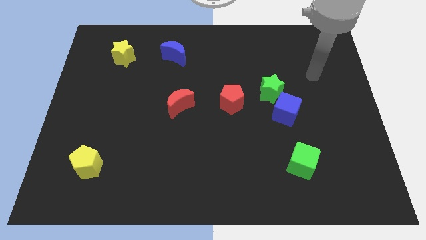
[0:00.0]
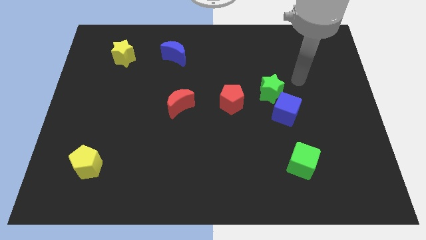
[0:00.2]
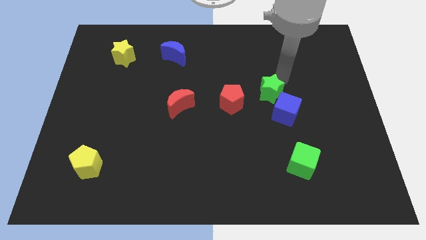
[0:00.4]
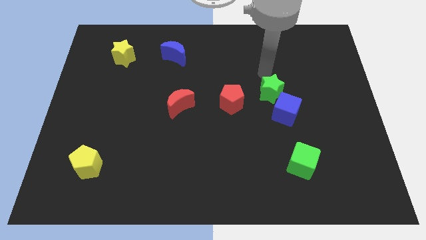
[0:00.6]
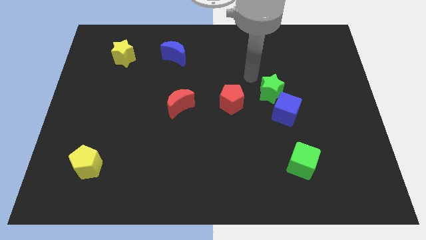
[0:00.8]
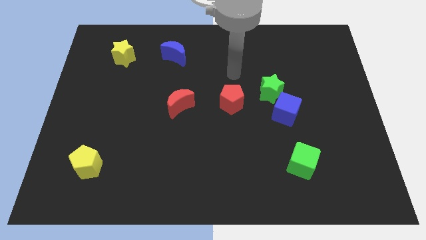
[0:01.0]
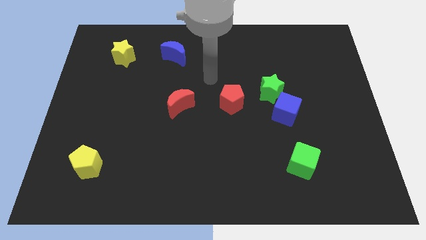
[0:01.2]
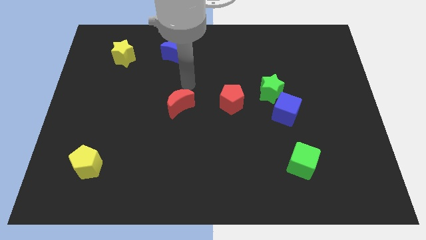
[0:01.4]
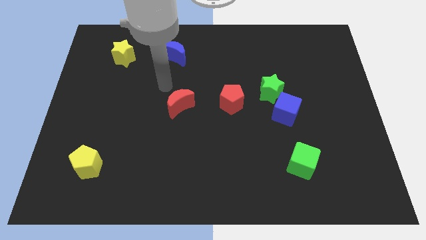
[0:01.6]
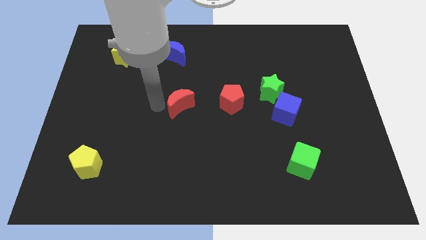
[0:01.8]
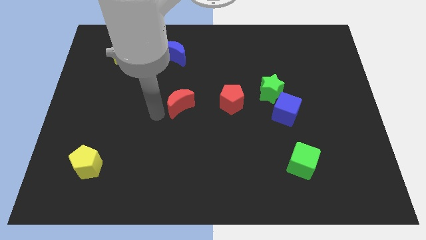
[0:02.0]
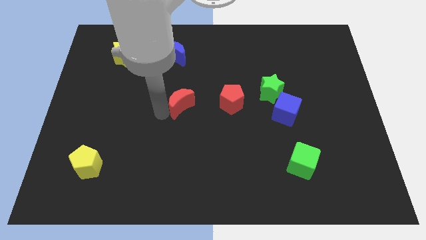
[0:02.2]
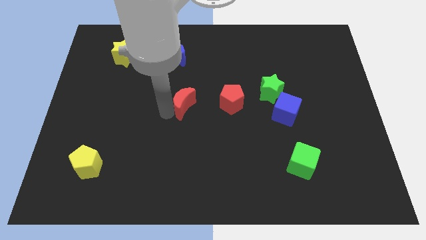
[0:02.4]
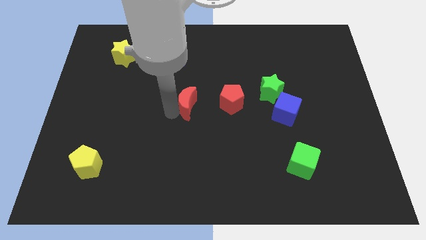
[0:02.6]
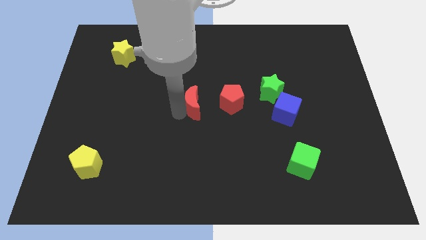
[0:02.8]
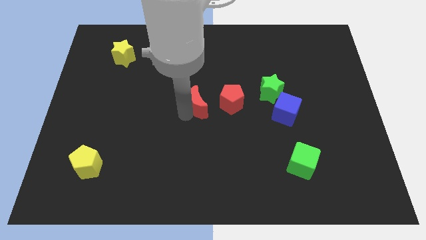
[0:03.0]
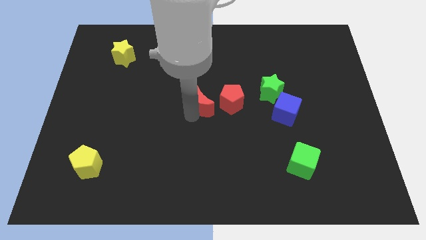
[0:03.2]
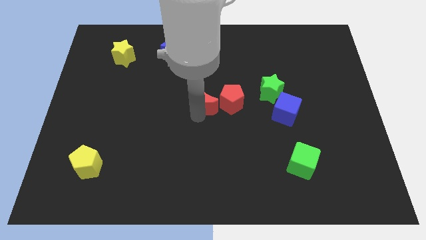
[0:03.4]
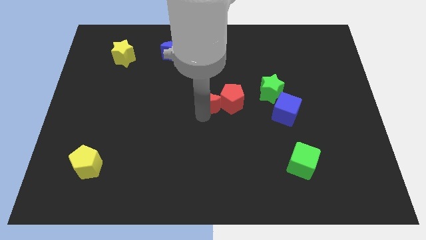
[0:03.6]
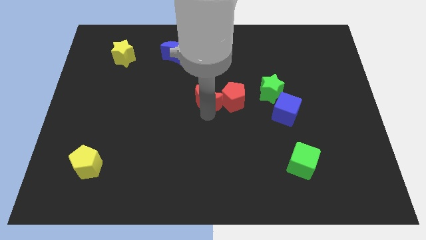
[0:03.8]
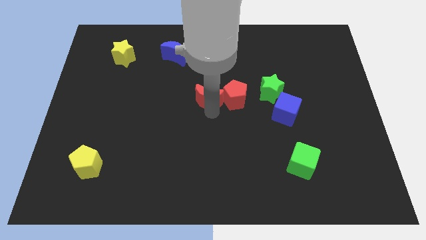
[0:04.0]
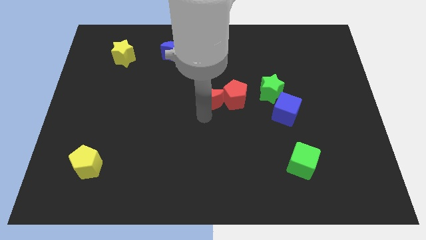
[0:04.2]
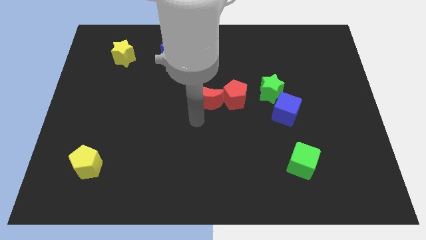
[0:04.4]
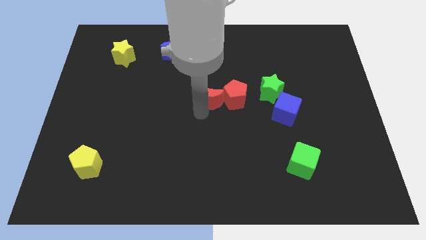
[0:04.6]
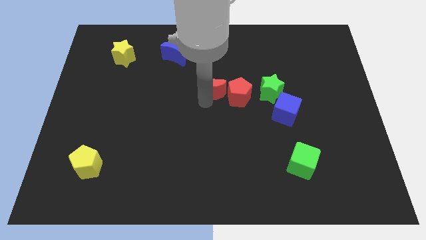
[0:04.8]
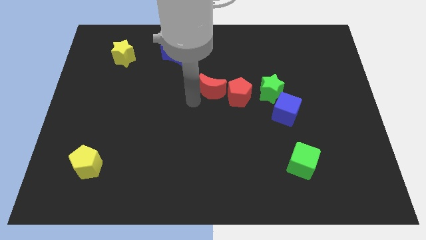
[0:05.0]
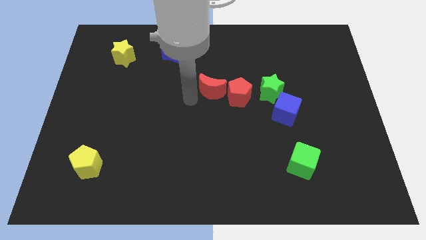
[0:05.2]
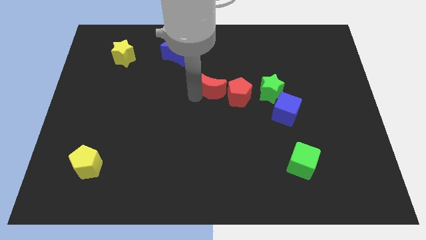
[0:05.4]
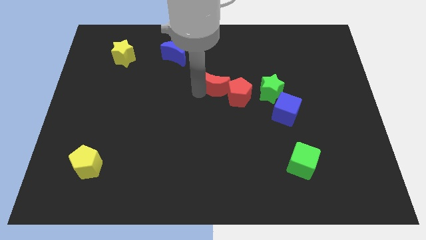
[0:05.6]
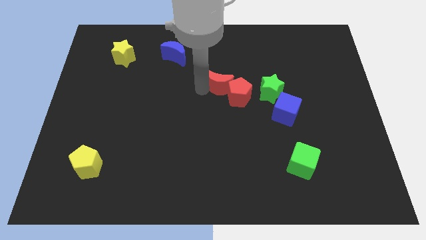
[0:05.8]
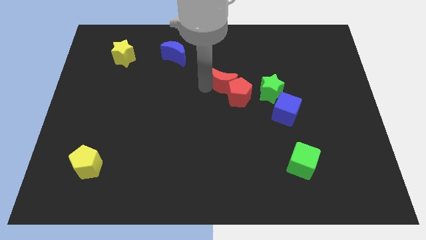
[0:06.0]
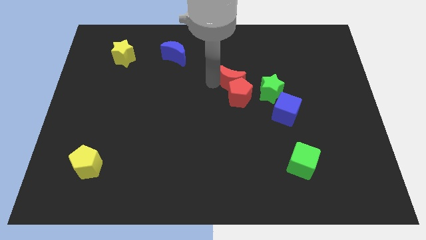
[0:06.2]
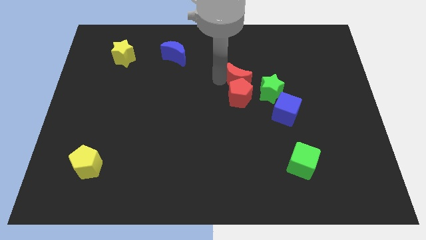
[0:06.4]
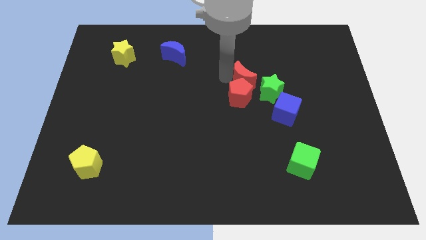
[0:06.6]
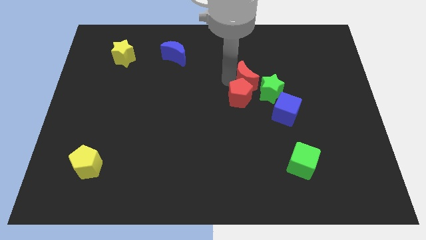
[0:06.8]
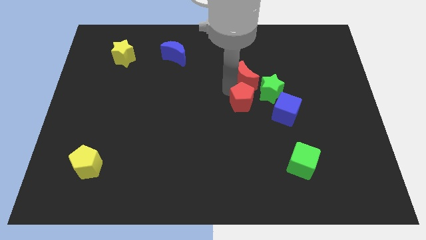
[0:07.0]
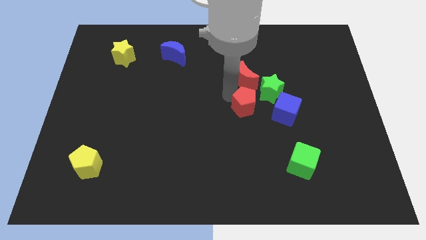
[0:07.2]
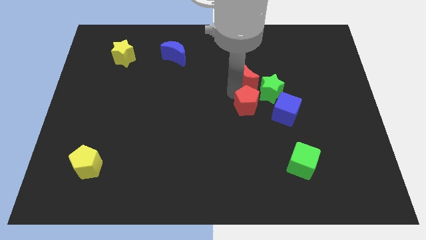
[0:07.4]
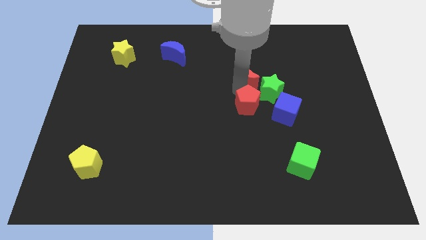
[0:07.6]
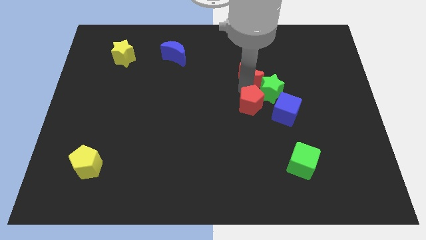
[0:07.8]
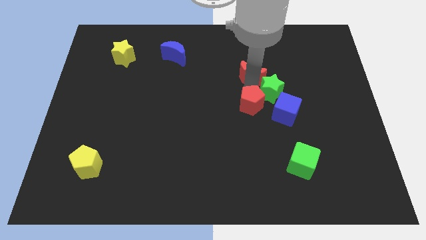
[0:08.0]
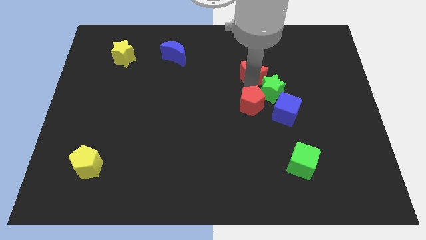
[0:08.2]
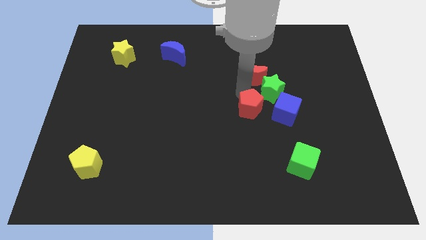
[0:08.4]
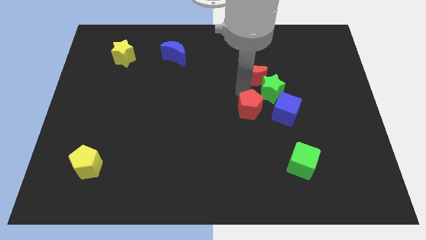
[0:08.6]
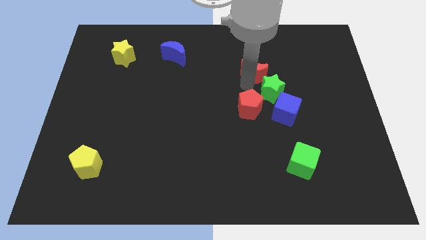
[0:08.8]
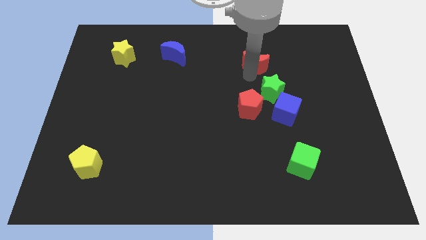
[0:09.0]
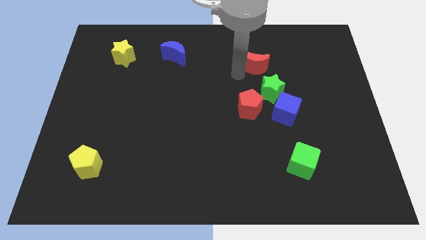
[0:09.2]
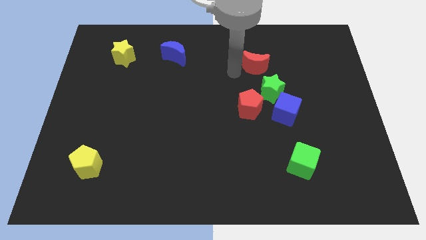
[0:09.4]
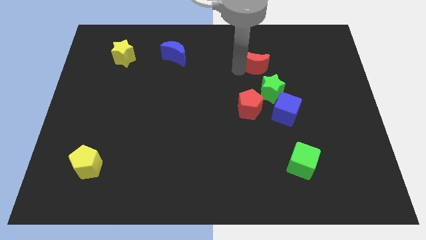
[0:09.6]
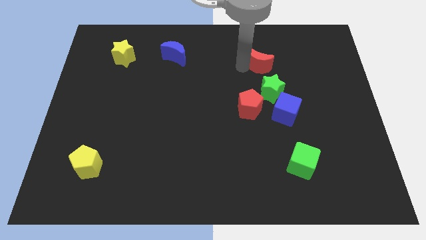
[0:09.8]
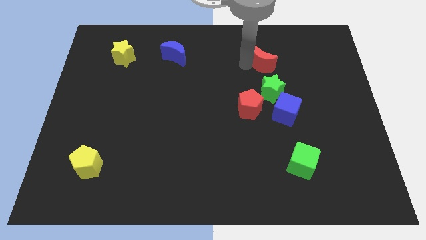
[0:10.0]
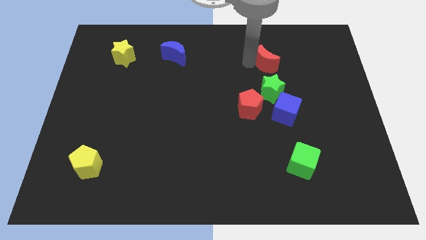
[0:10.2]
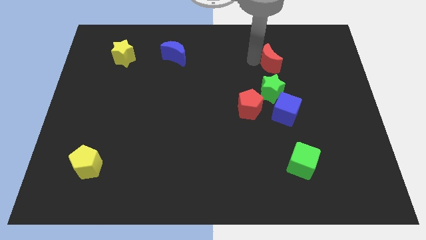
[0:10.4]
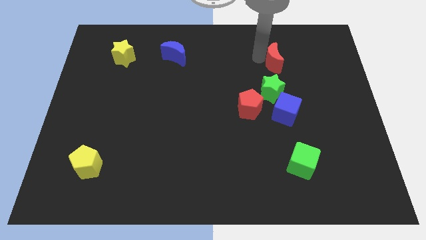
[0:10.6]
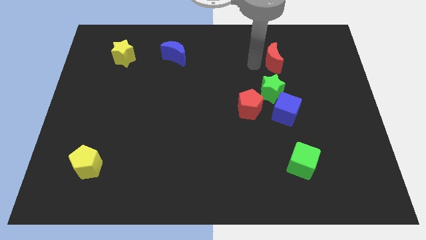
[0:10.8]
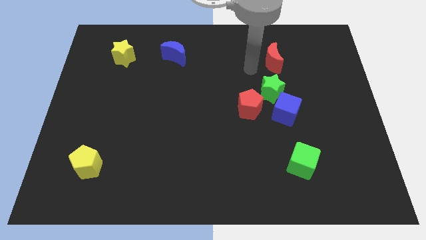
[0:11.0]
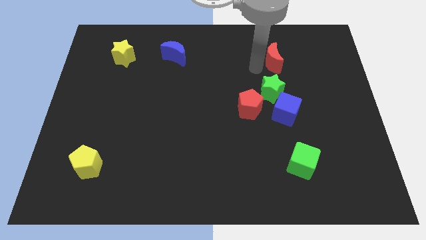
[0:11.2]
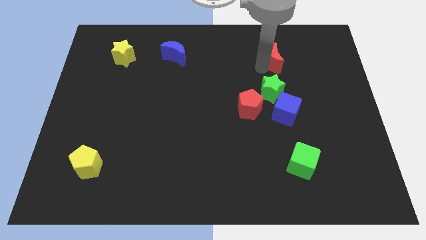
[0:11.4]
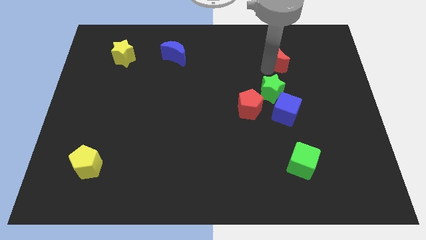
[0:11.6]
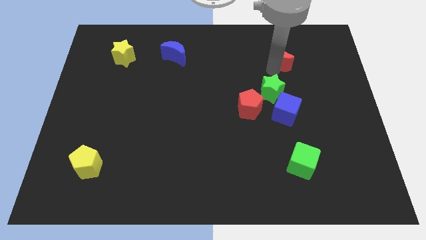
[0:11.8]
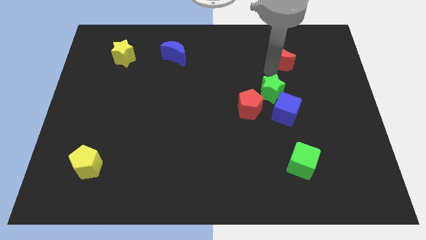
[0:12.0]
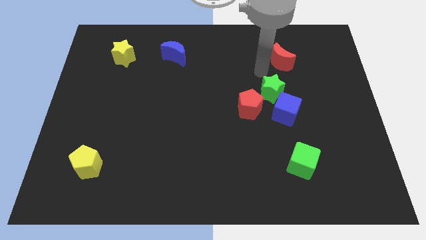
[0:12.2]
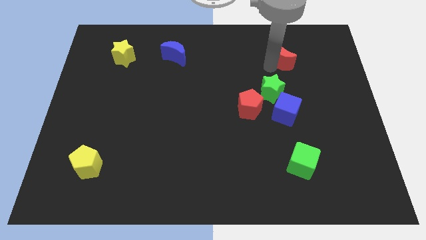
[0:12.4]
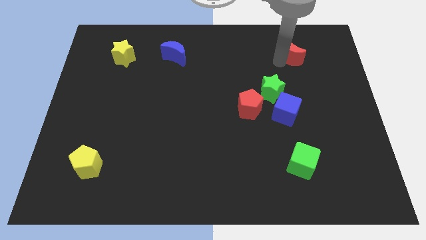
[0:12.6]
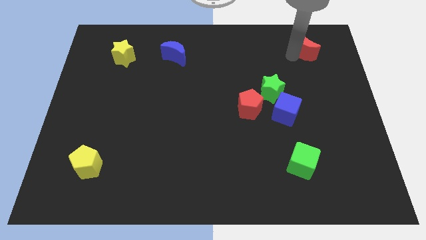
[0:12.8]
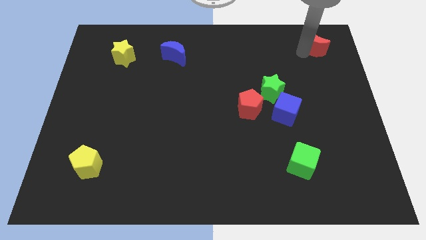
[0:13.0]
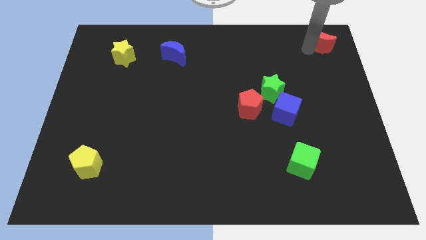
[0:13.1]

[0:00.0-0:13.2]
put the red moon to the top right

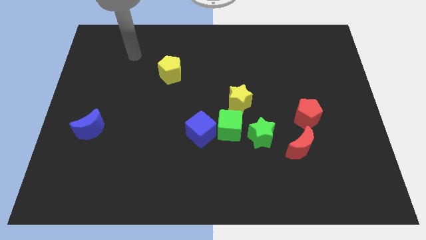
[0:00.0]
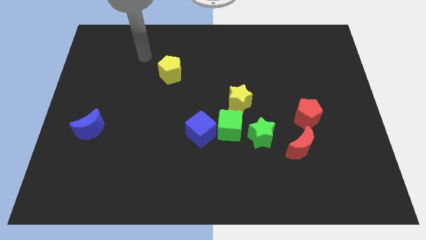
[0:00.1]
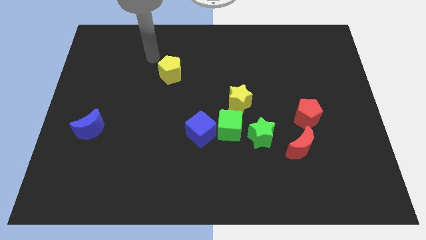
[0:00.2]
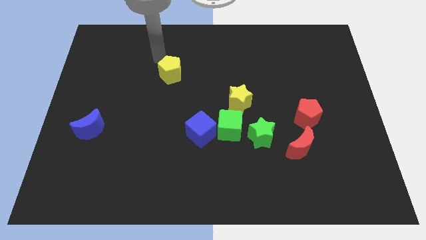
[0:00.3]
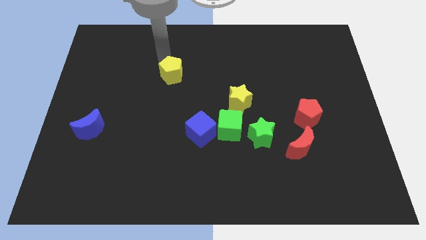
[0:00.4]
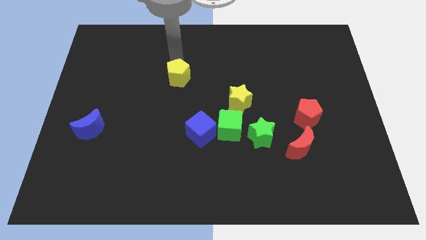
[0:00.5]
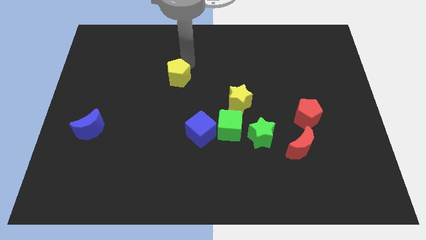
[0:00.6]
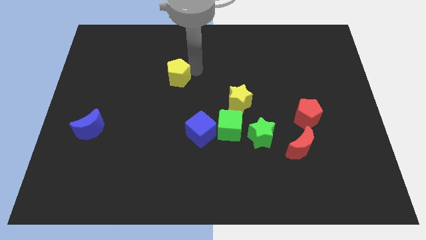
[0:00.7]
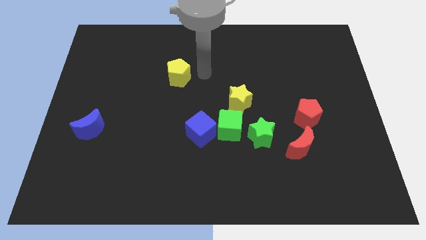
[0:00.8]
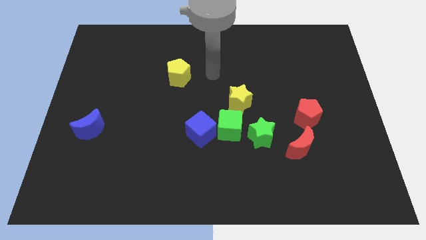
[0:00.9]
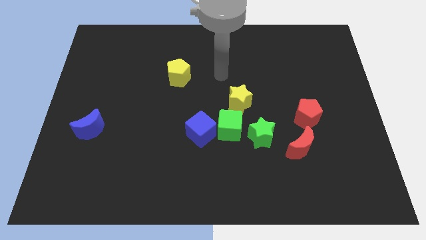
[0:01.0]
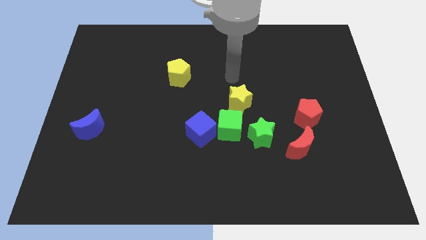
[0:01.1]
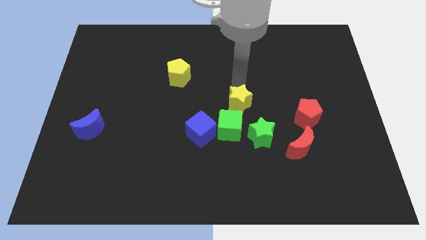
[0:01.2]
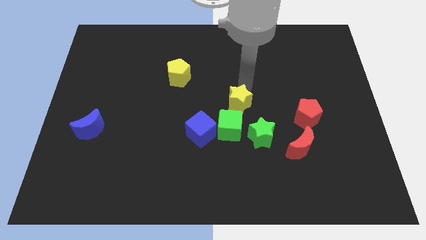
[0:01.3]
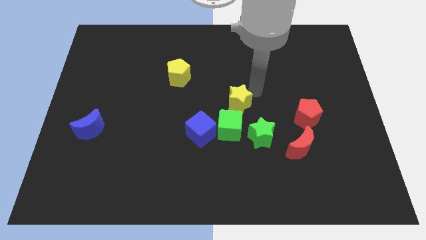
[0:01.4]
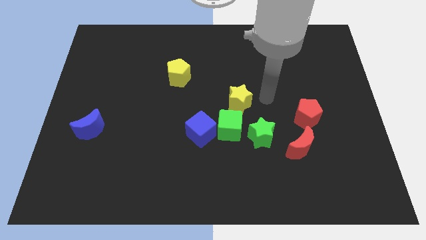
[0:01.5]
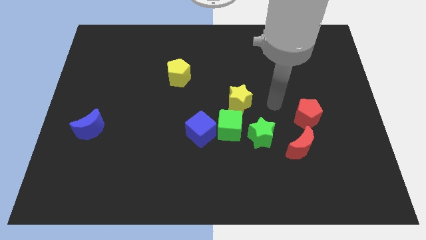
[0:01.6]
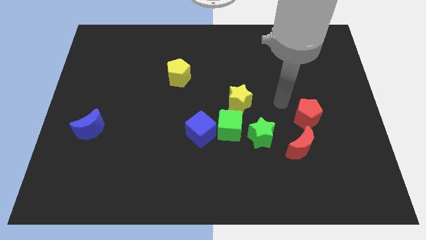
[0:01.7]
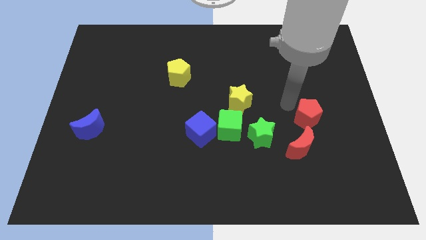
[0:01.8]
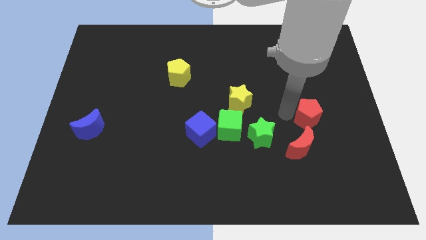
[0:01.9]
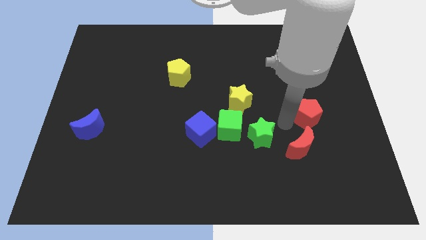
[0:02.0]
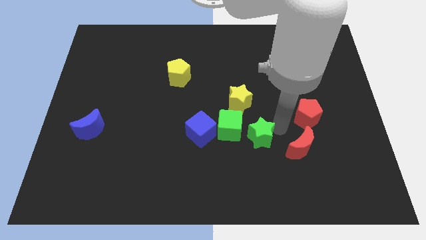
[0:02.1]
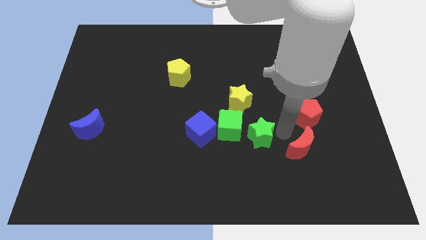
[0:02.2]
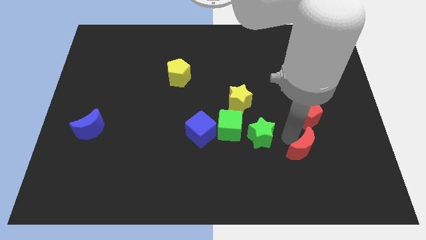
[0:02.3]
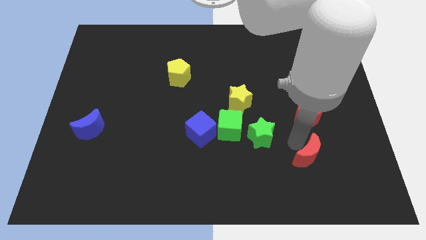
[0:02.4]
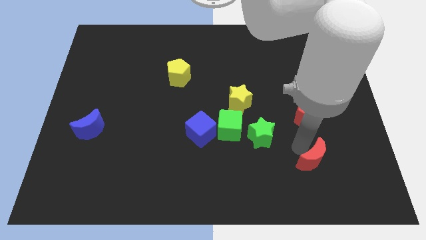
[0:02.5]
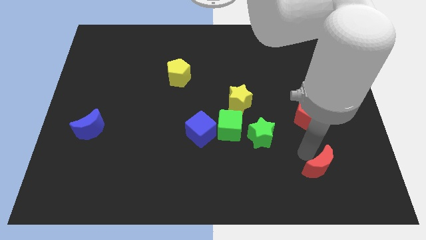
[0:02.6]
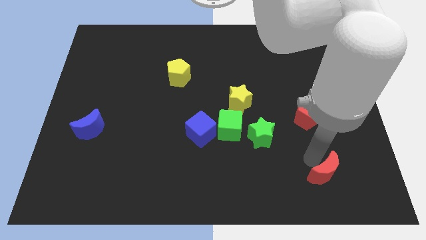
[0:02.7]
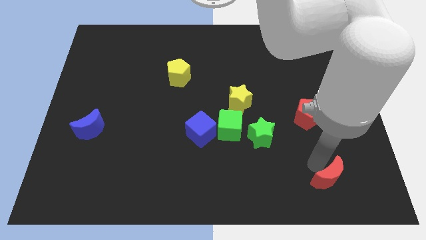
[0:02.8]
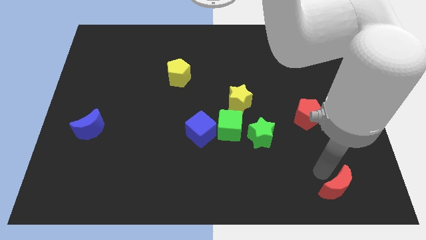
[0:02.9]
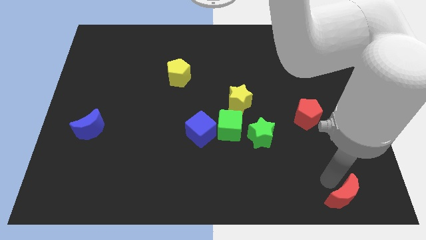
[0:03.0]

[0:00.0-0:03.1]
slide the red moon to the bottom right
